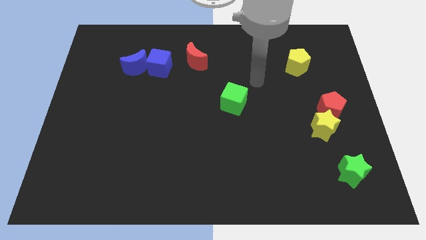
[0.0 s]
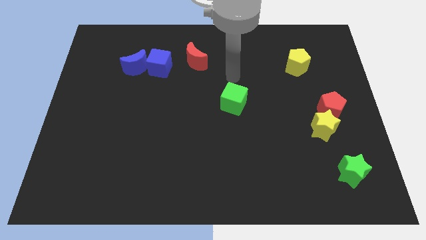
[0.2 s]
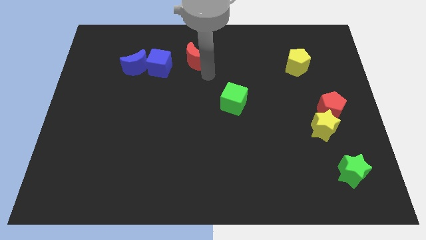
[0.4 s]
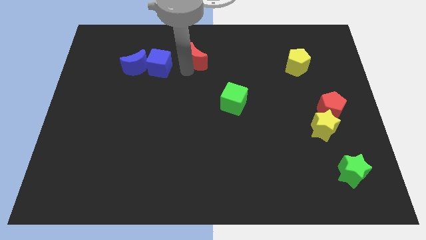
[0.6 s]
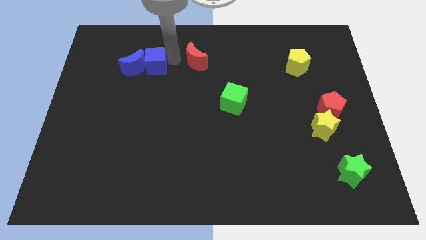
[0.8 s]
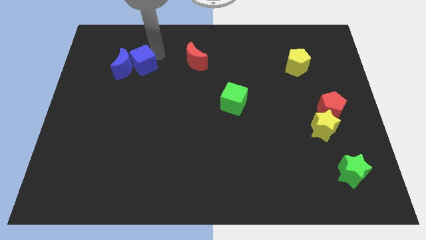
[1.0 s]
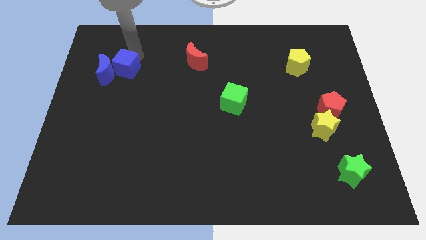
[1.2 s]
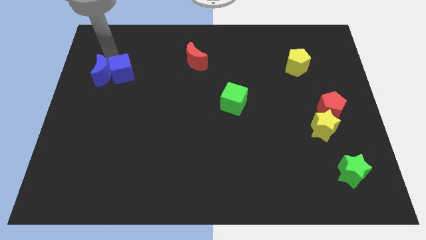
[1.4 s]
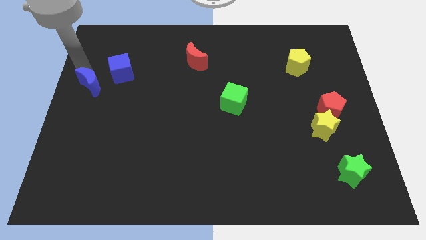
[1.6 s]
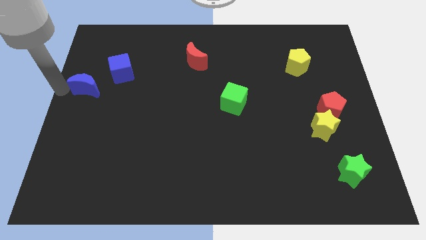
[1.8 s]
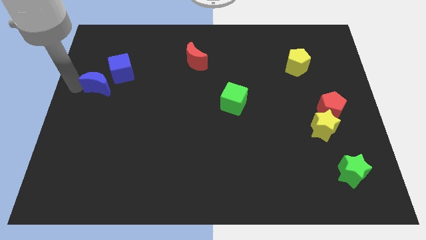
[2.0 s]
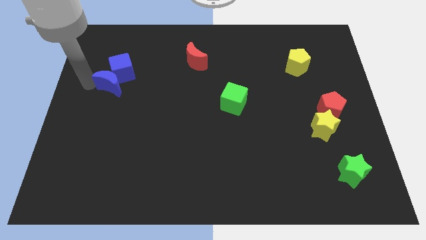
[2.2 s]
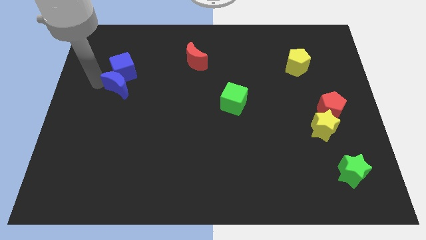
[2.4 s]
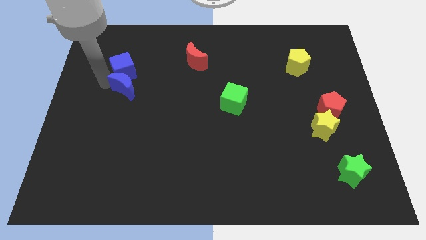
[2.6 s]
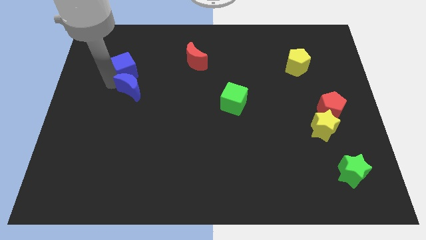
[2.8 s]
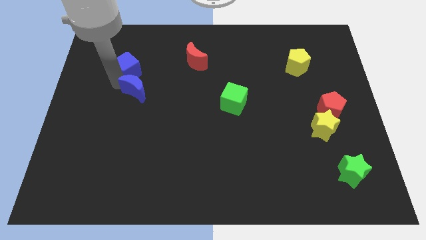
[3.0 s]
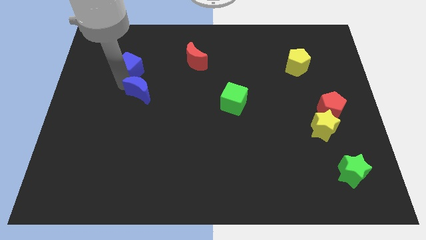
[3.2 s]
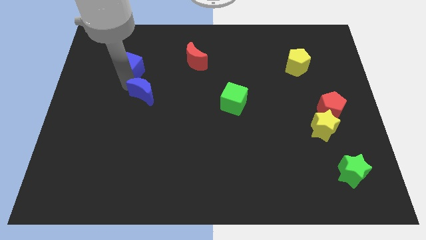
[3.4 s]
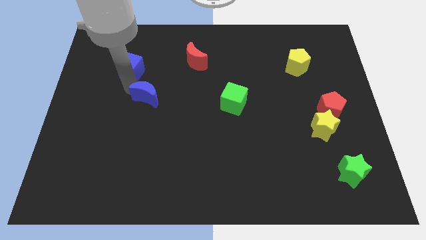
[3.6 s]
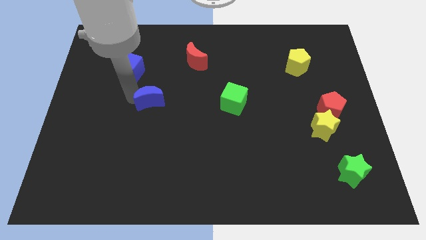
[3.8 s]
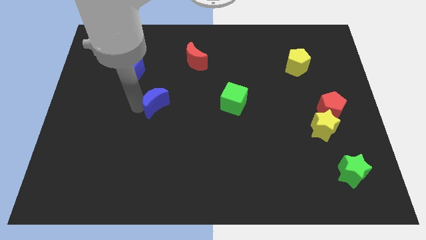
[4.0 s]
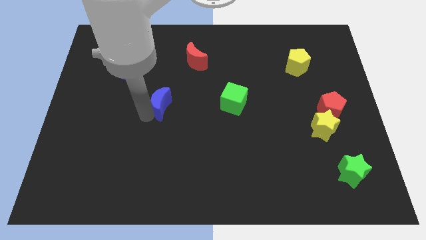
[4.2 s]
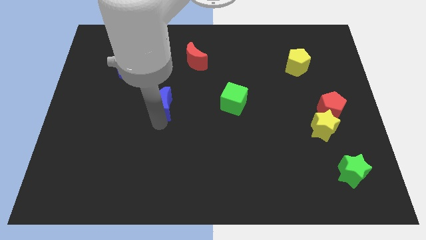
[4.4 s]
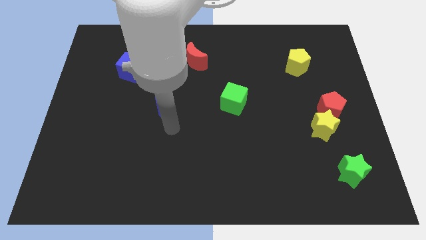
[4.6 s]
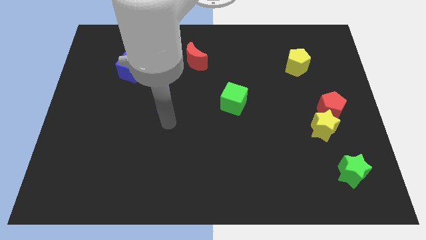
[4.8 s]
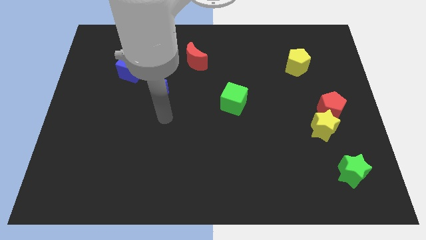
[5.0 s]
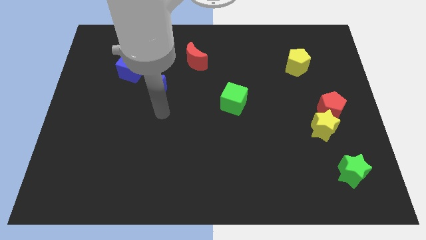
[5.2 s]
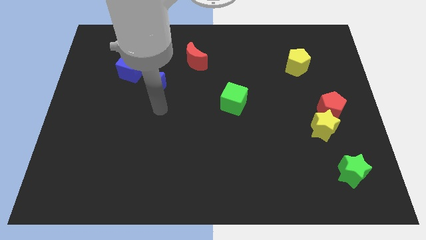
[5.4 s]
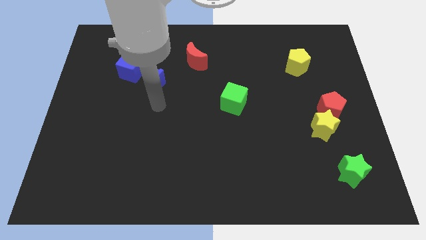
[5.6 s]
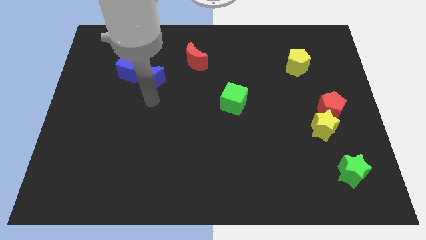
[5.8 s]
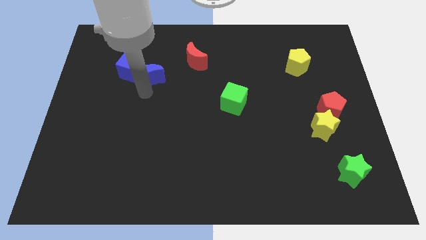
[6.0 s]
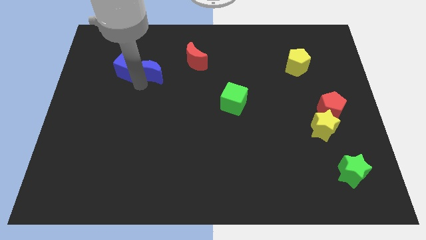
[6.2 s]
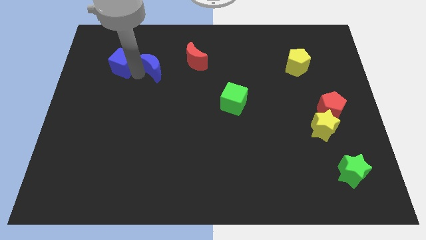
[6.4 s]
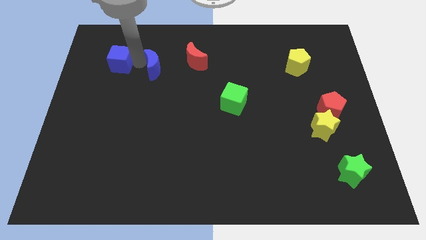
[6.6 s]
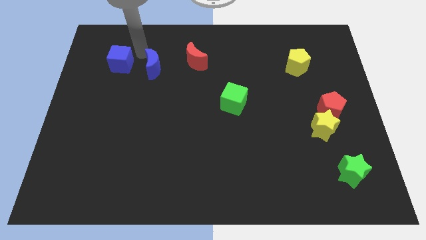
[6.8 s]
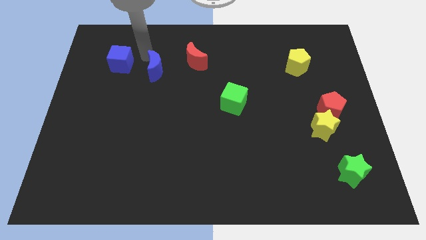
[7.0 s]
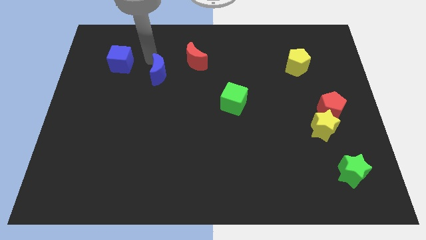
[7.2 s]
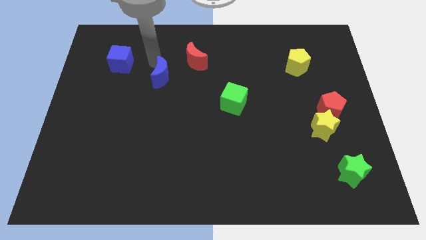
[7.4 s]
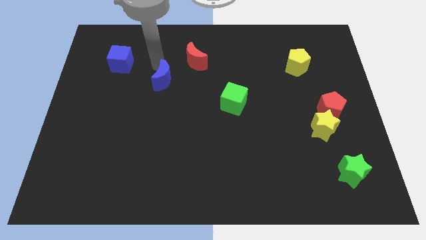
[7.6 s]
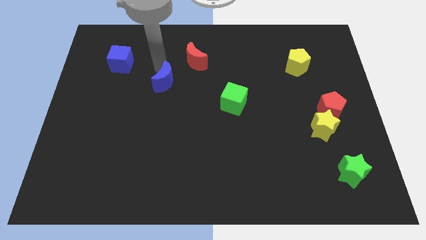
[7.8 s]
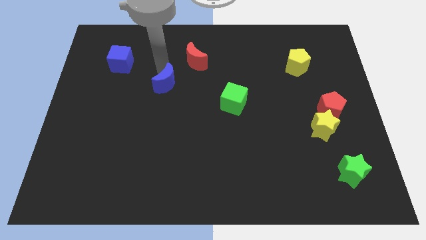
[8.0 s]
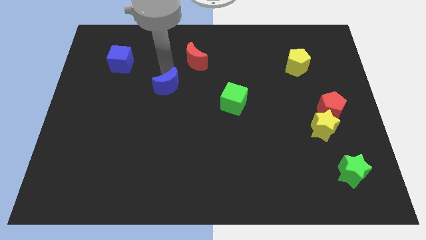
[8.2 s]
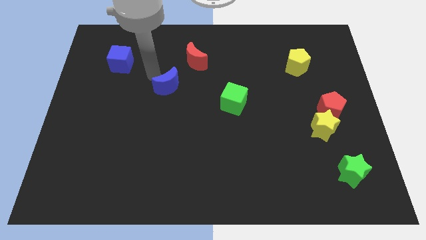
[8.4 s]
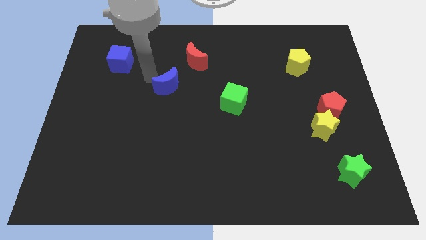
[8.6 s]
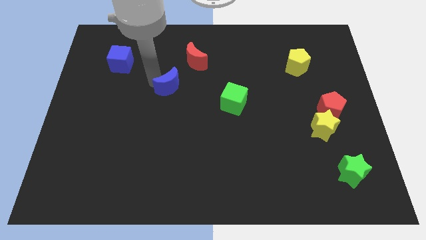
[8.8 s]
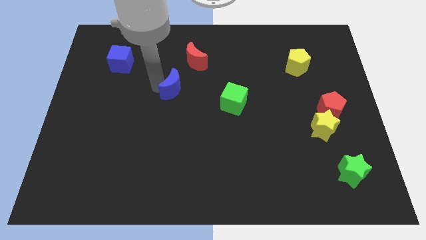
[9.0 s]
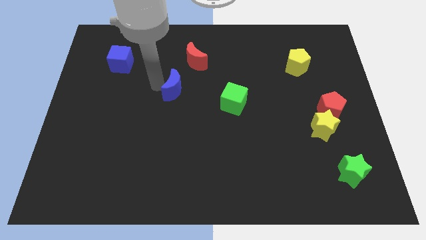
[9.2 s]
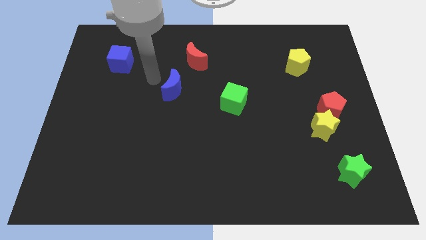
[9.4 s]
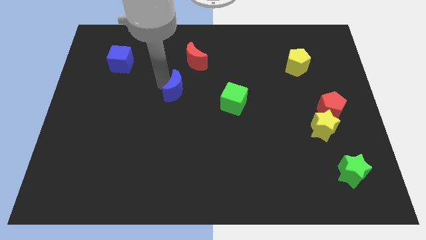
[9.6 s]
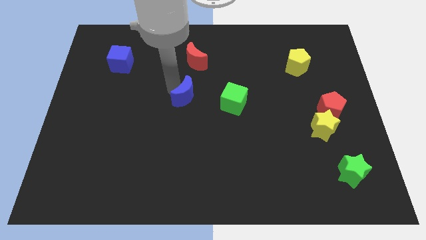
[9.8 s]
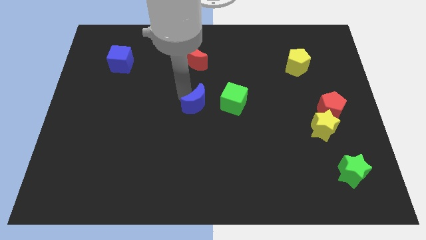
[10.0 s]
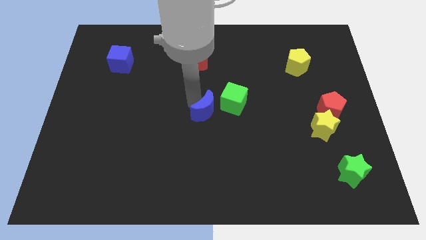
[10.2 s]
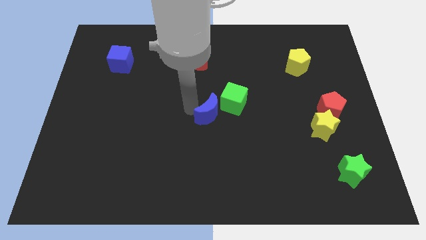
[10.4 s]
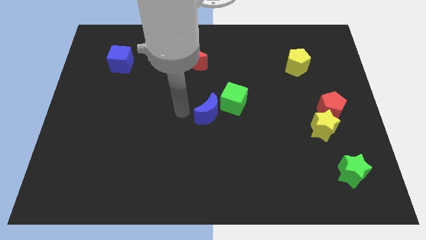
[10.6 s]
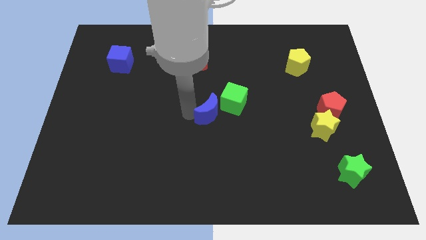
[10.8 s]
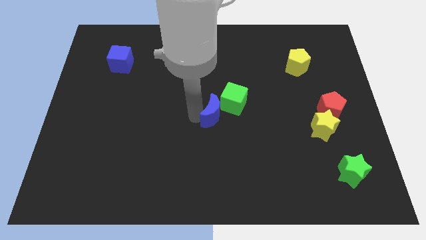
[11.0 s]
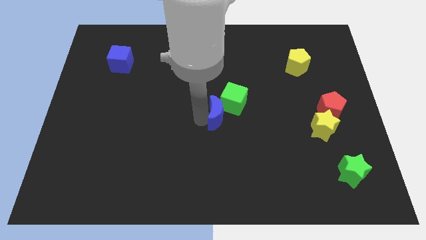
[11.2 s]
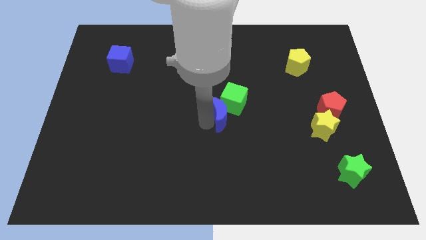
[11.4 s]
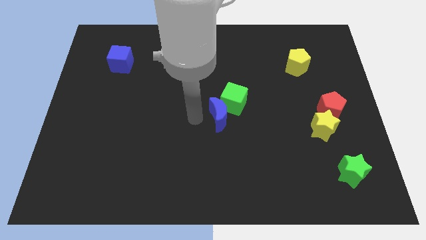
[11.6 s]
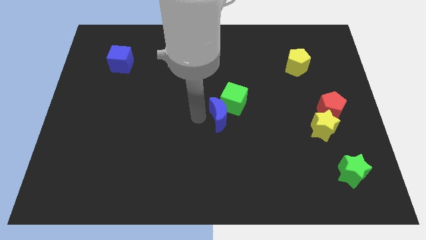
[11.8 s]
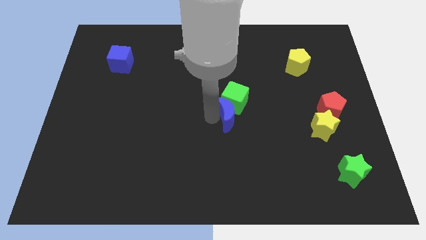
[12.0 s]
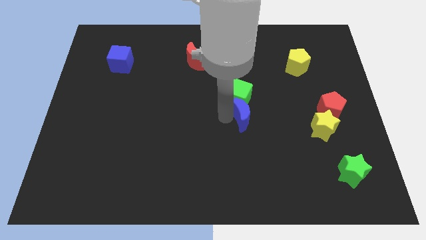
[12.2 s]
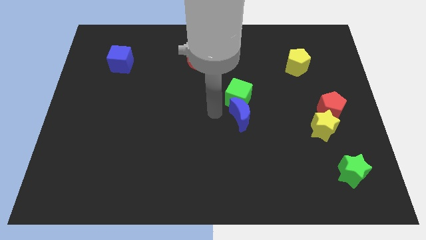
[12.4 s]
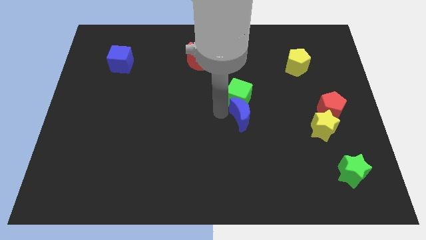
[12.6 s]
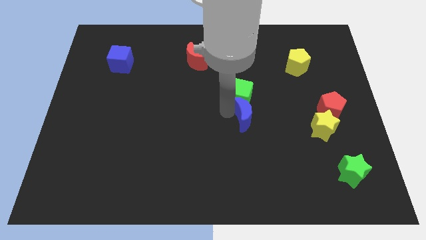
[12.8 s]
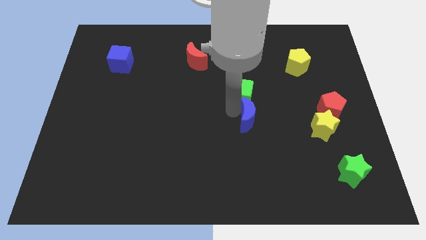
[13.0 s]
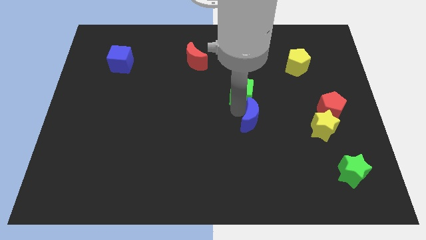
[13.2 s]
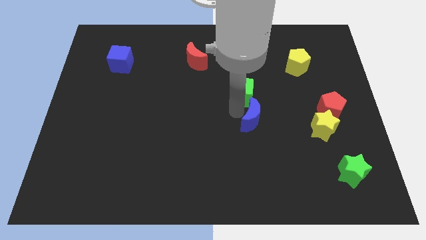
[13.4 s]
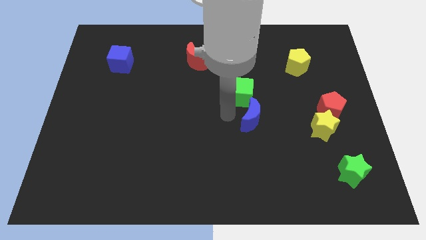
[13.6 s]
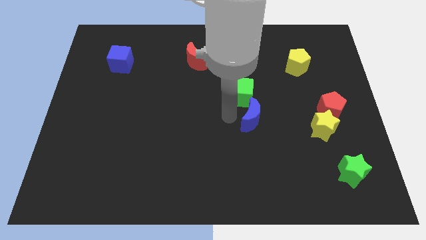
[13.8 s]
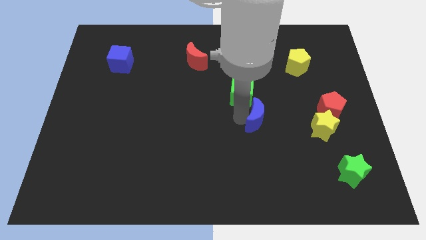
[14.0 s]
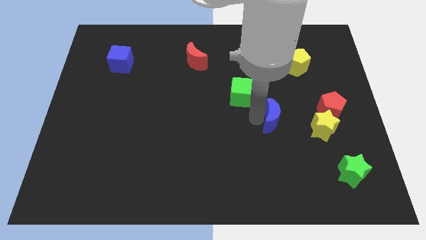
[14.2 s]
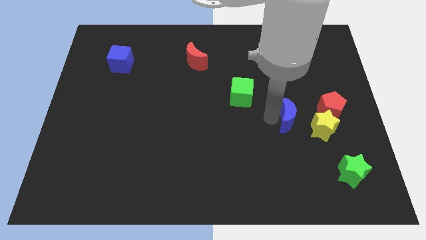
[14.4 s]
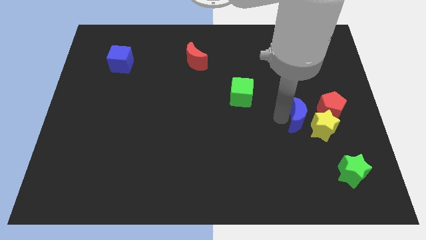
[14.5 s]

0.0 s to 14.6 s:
push the blue moon to the yellow star
